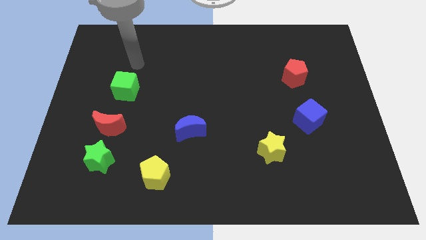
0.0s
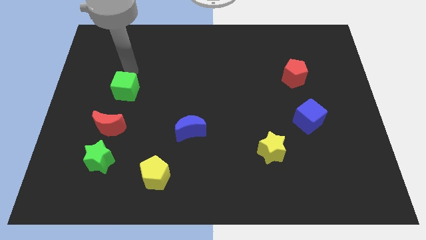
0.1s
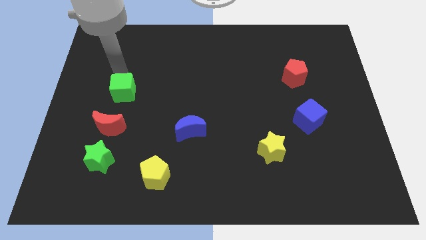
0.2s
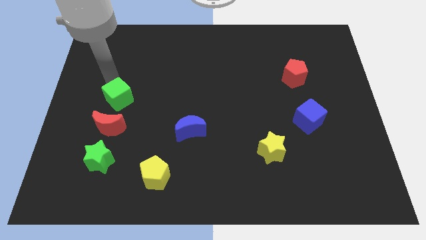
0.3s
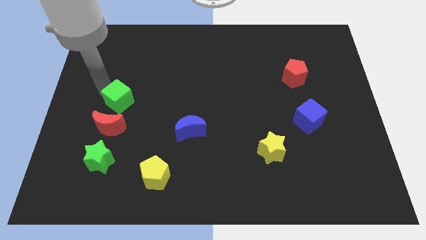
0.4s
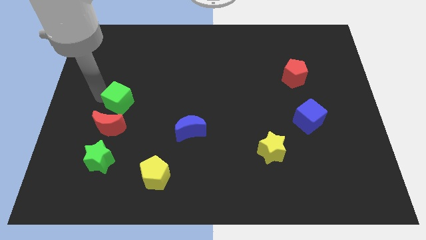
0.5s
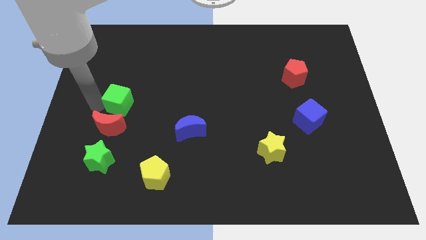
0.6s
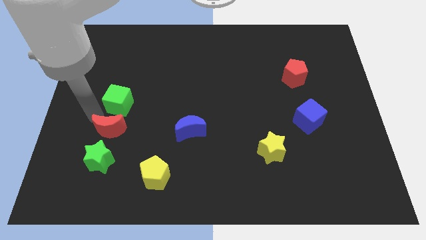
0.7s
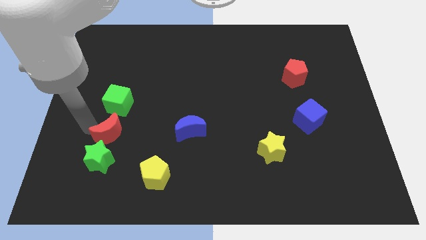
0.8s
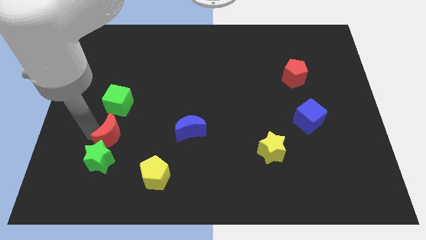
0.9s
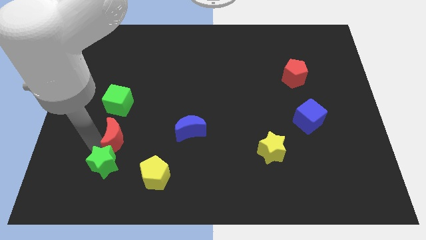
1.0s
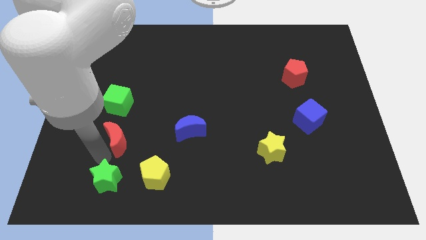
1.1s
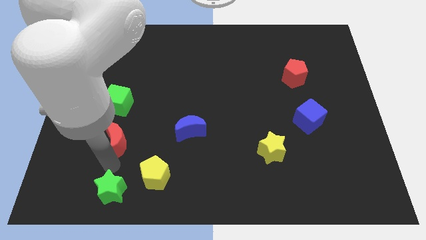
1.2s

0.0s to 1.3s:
separate the red moon from the green star

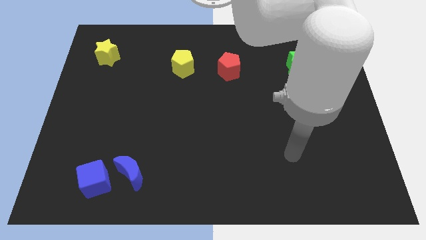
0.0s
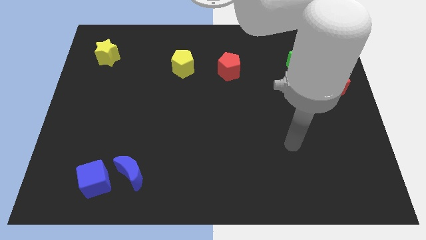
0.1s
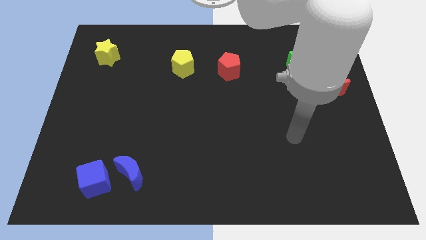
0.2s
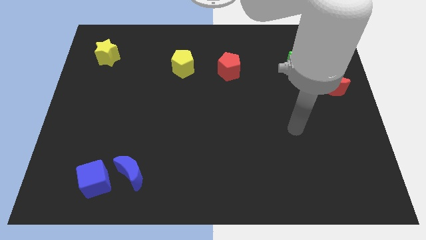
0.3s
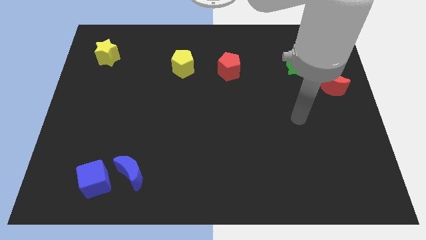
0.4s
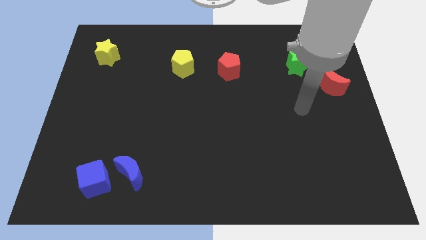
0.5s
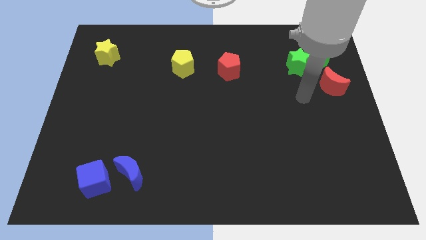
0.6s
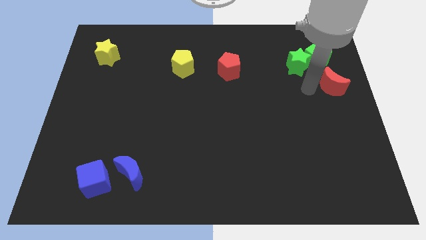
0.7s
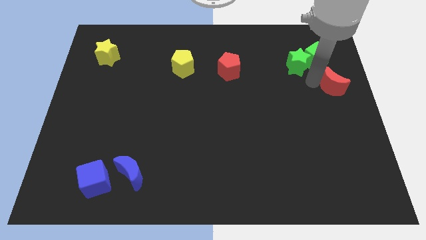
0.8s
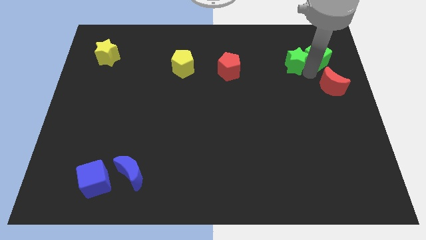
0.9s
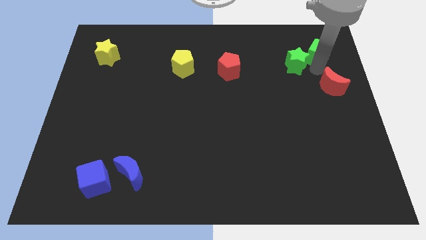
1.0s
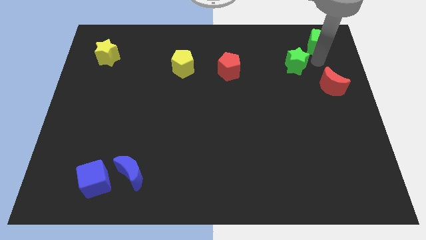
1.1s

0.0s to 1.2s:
separate the green star from the green cube

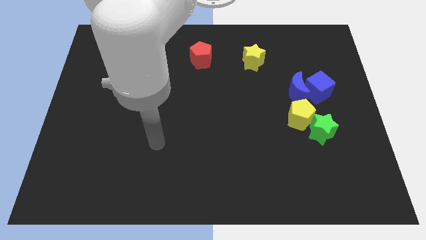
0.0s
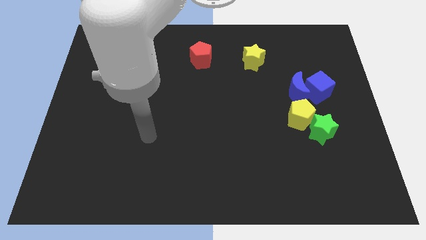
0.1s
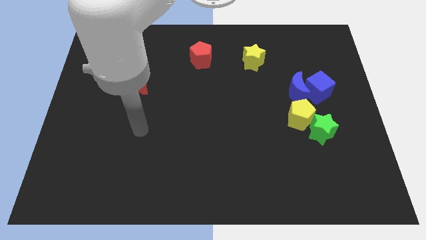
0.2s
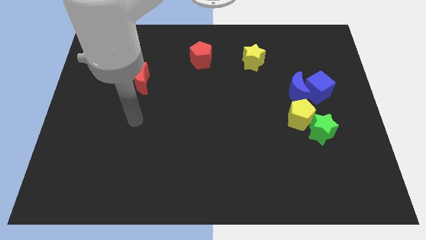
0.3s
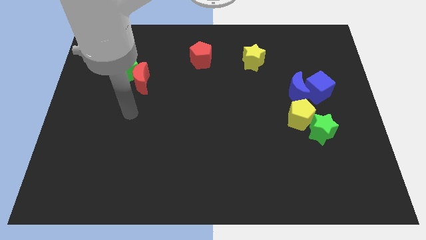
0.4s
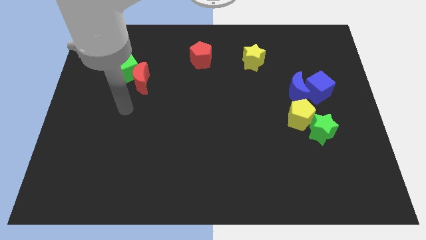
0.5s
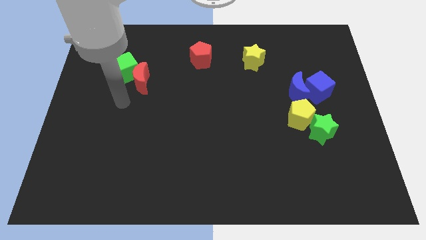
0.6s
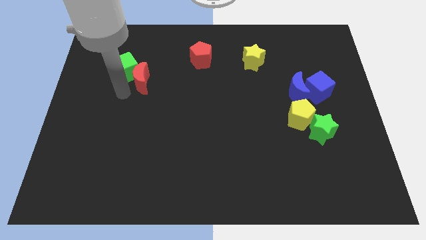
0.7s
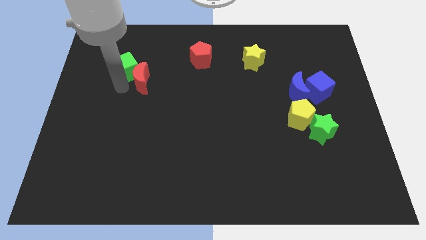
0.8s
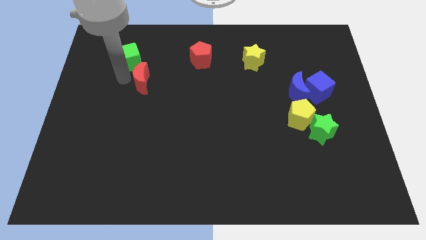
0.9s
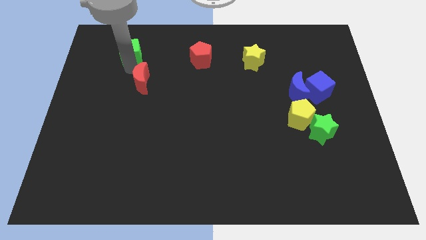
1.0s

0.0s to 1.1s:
move the red moon away from the green cube

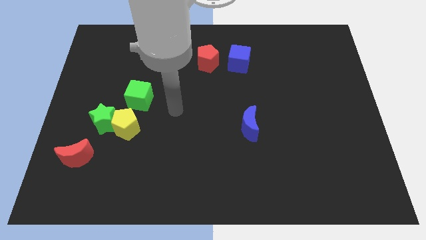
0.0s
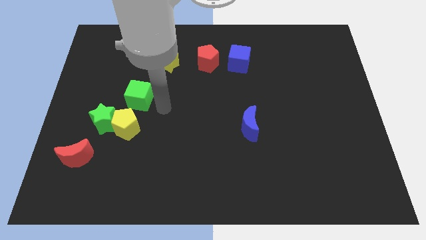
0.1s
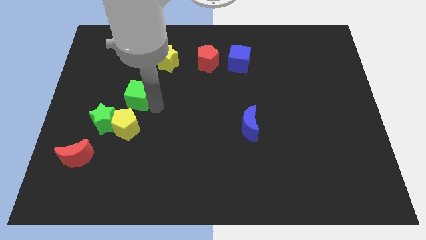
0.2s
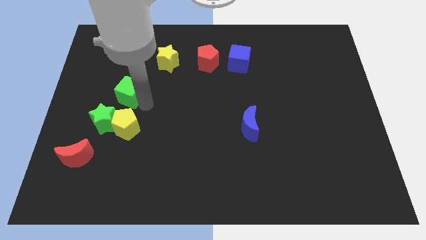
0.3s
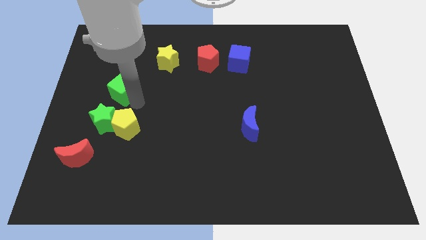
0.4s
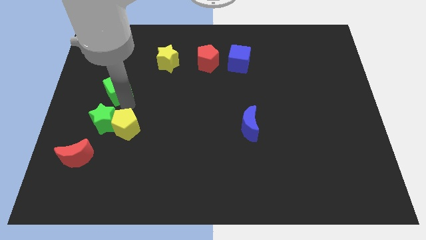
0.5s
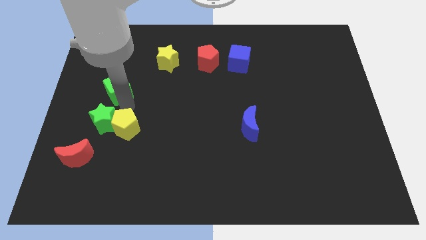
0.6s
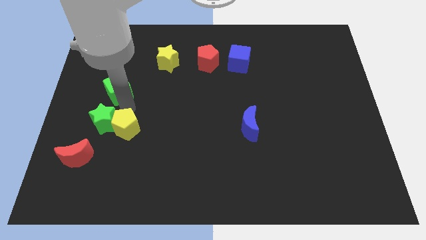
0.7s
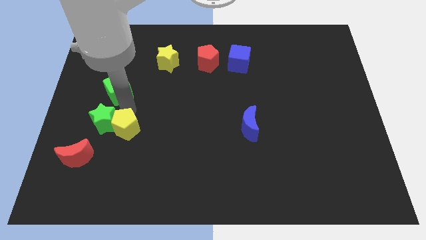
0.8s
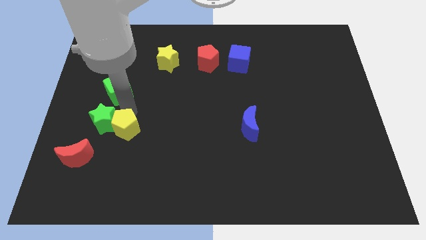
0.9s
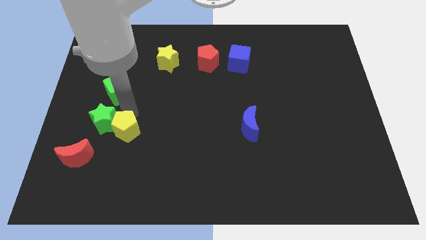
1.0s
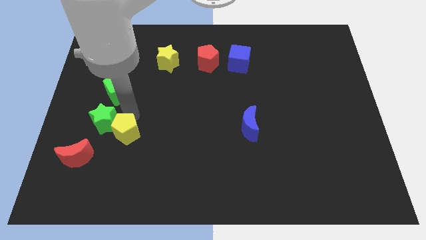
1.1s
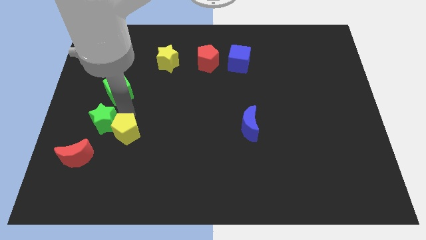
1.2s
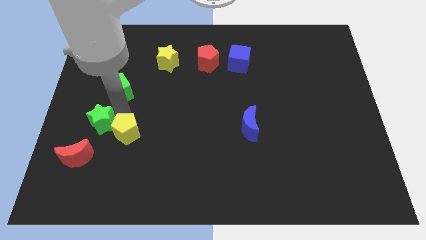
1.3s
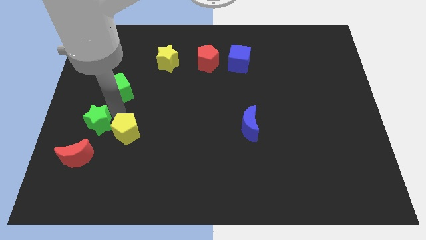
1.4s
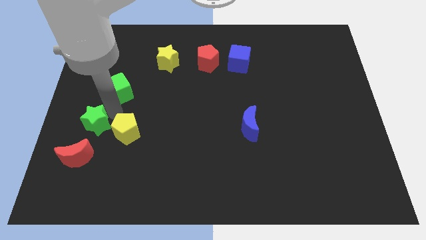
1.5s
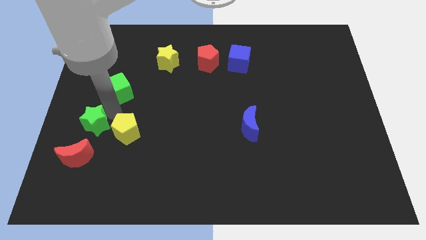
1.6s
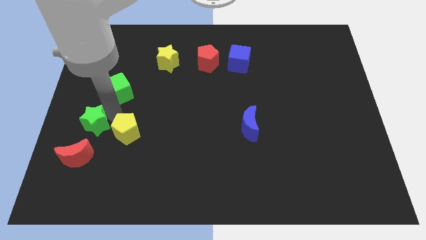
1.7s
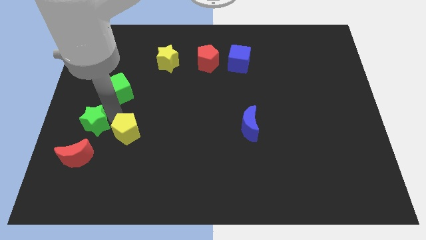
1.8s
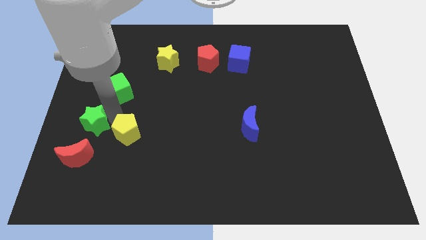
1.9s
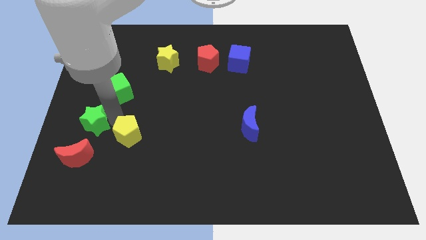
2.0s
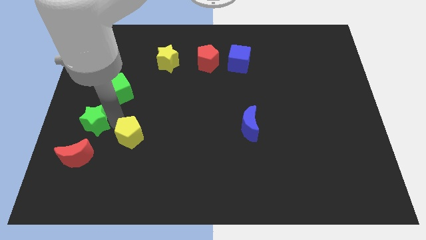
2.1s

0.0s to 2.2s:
move the yellow pentagon away from the green star and green cube

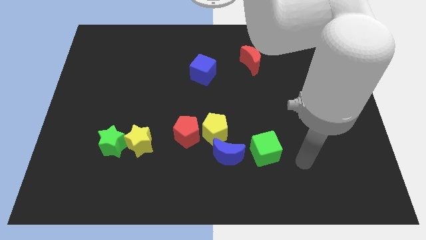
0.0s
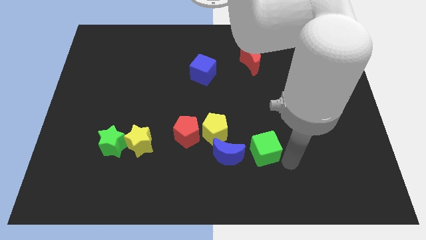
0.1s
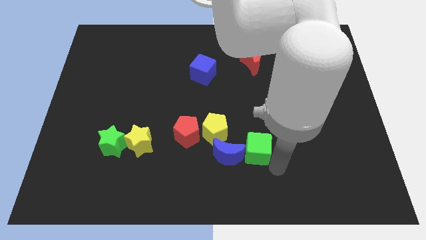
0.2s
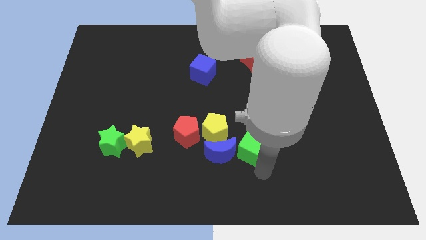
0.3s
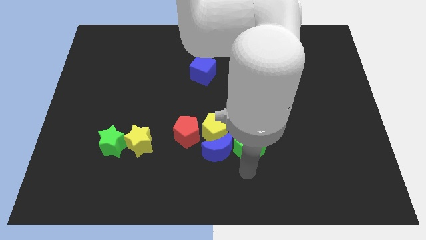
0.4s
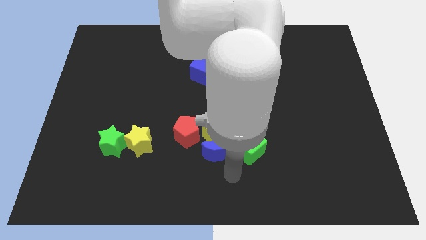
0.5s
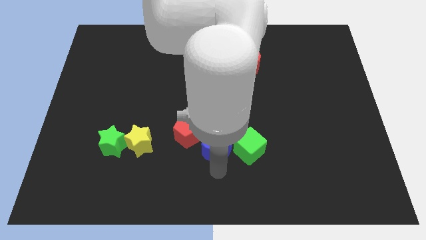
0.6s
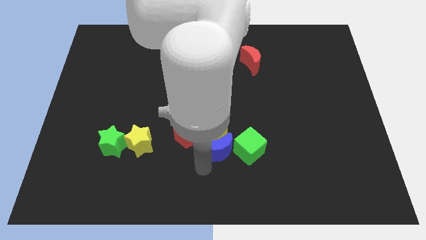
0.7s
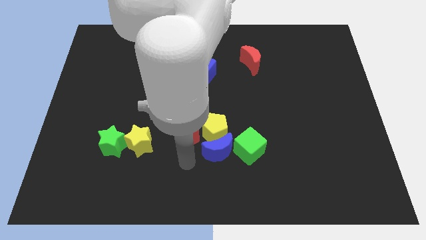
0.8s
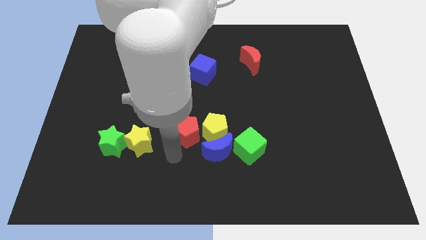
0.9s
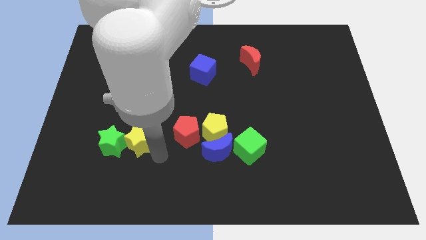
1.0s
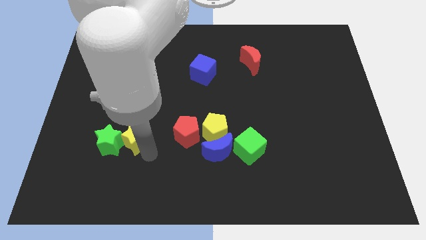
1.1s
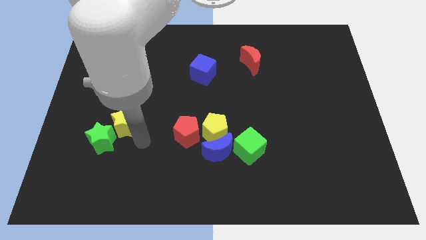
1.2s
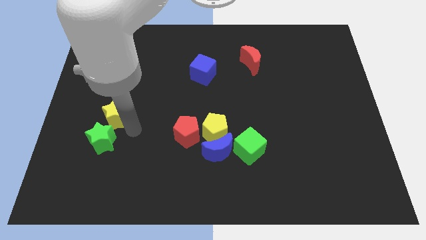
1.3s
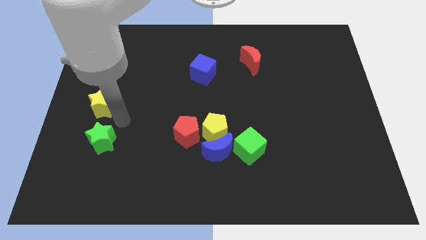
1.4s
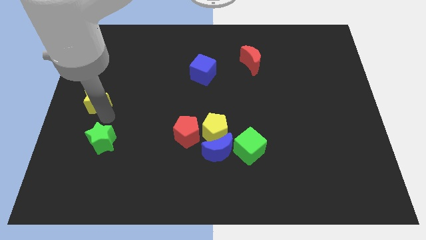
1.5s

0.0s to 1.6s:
separate the green star from the yellow star

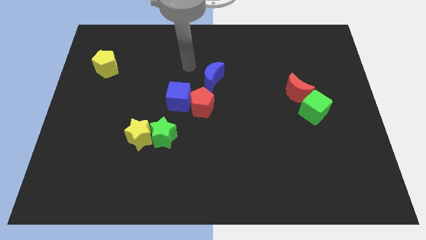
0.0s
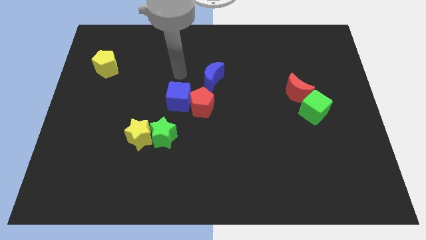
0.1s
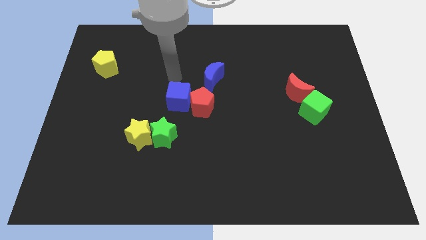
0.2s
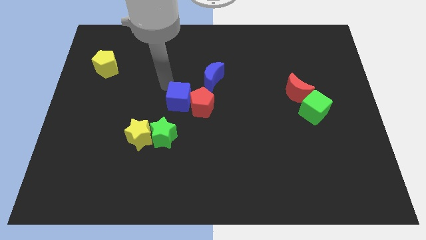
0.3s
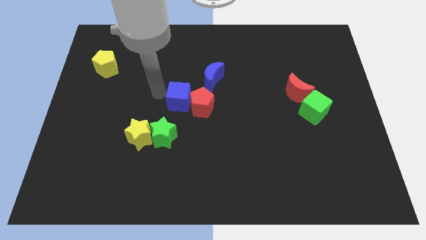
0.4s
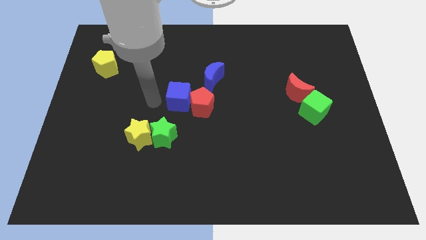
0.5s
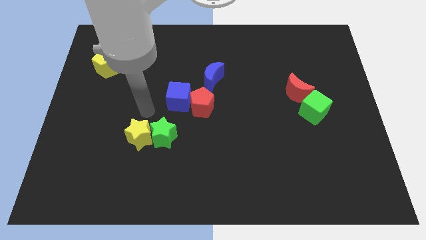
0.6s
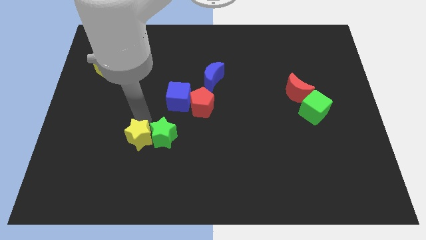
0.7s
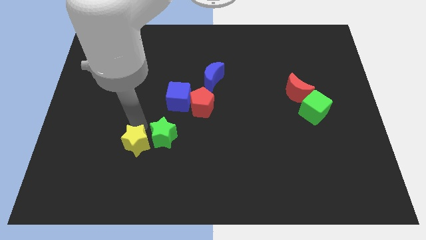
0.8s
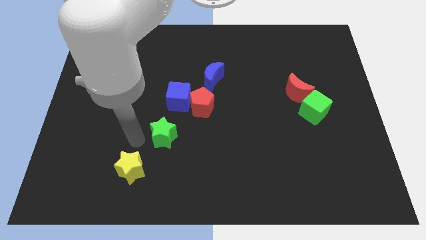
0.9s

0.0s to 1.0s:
move the green star away from the yellow star

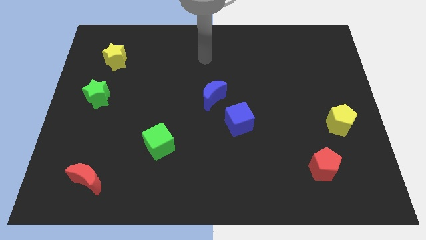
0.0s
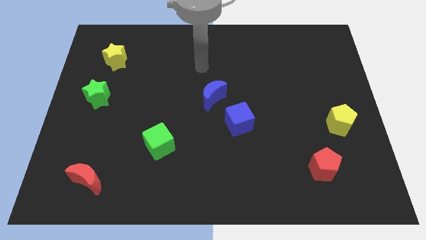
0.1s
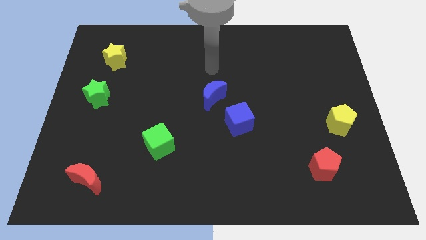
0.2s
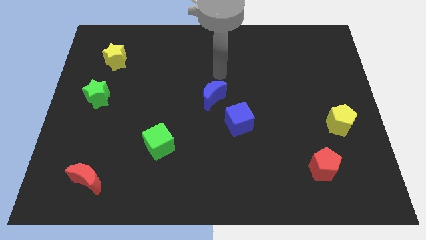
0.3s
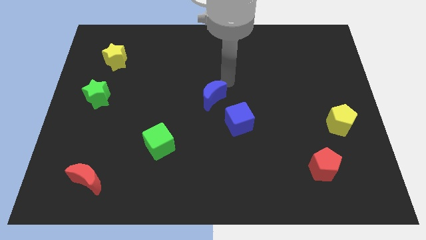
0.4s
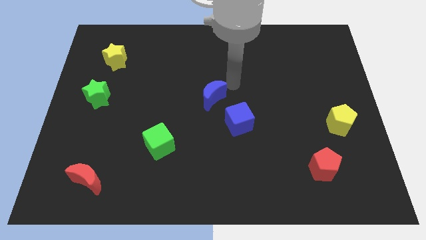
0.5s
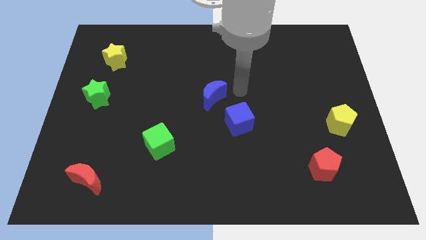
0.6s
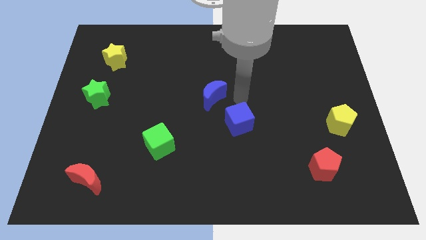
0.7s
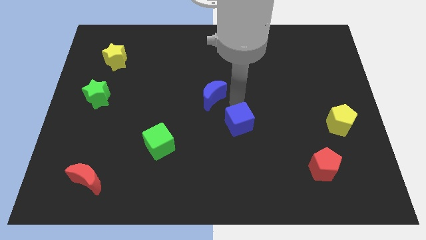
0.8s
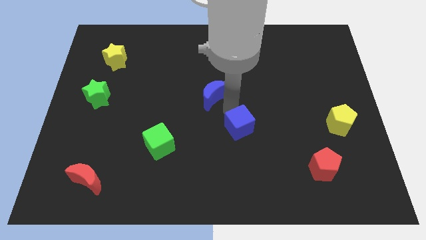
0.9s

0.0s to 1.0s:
move the blue moon away from the blue cube
